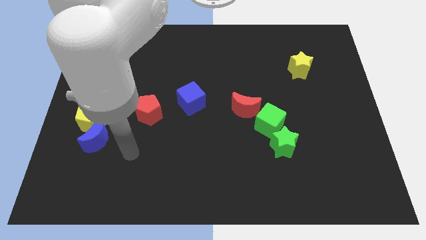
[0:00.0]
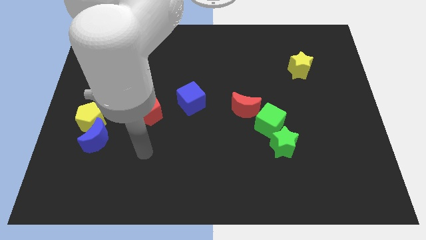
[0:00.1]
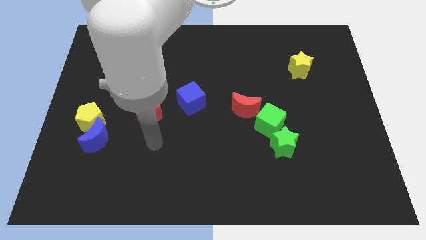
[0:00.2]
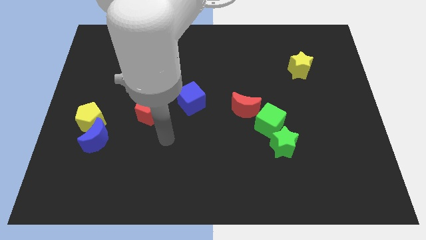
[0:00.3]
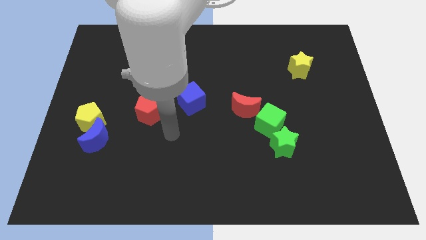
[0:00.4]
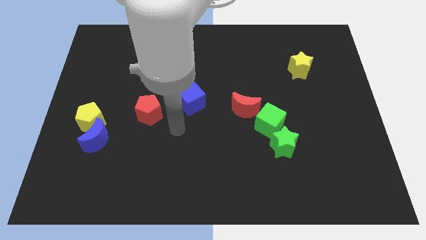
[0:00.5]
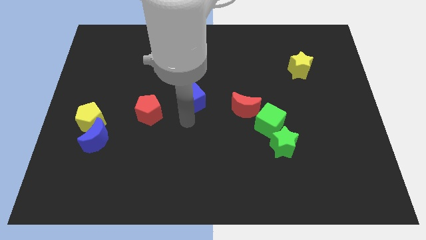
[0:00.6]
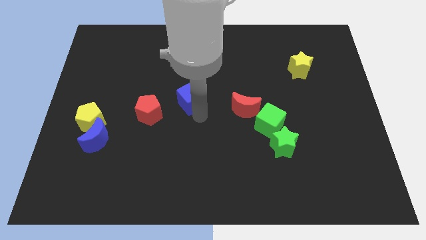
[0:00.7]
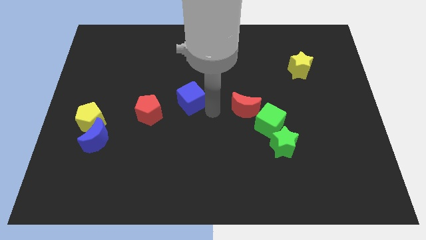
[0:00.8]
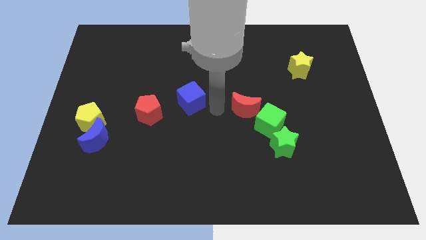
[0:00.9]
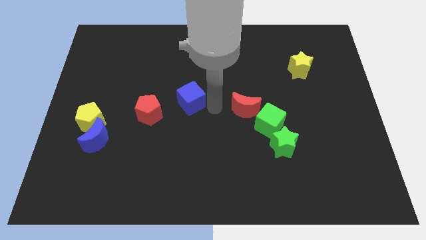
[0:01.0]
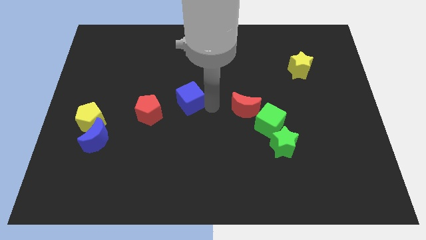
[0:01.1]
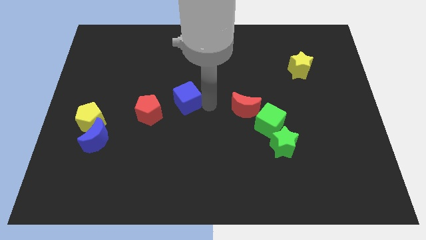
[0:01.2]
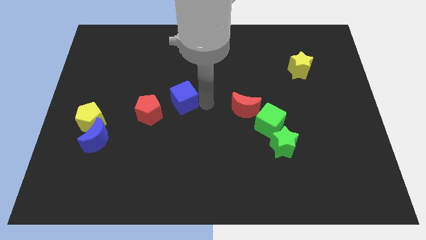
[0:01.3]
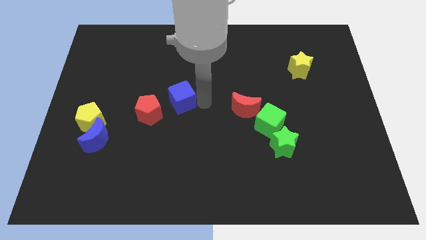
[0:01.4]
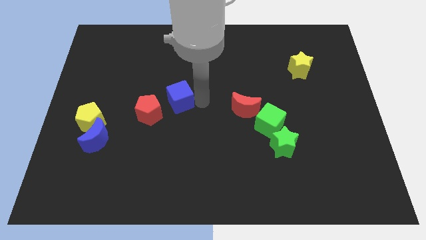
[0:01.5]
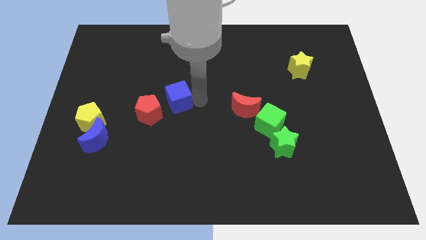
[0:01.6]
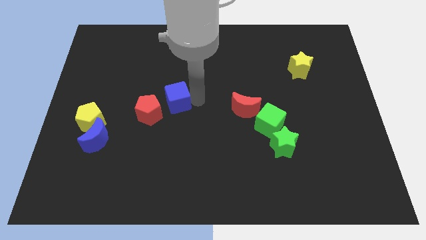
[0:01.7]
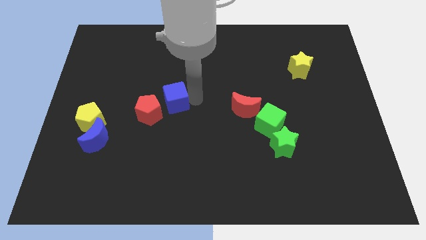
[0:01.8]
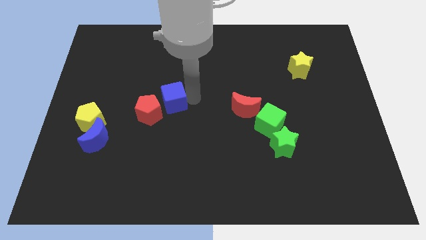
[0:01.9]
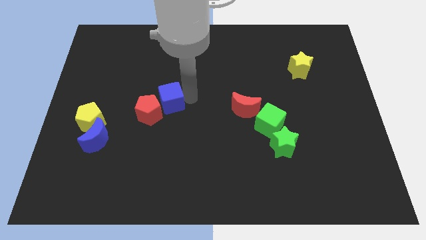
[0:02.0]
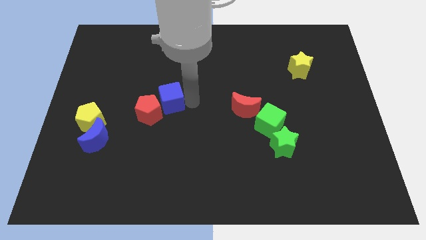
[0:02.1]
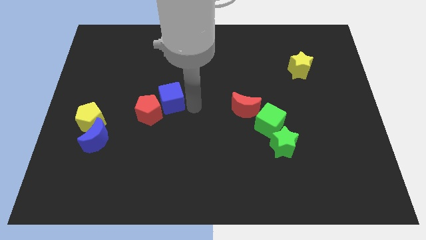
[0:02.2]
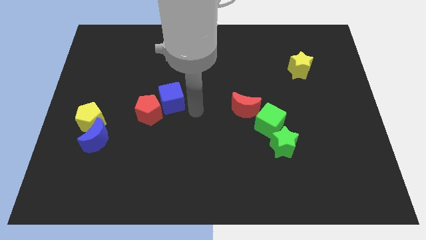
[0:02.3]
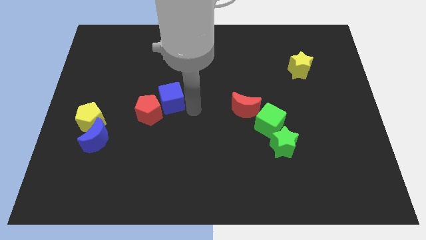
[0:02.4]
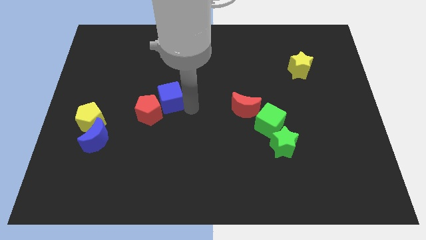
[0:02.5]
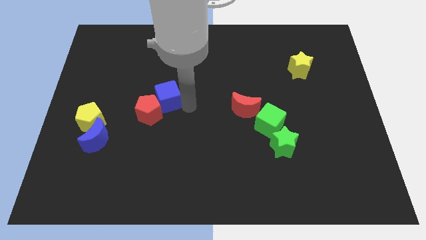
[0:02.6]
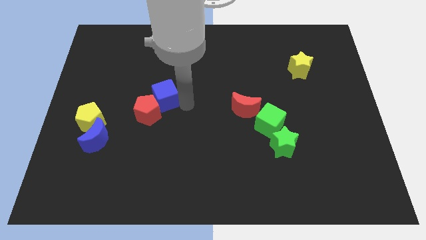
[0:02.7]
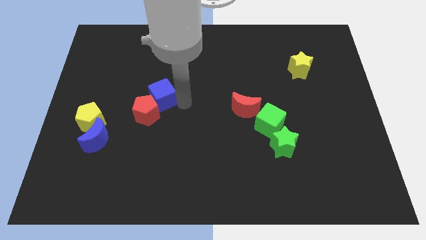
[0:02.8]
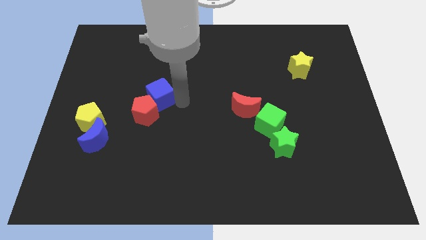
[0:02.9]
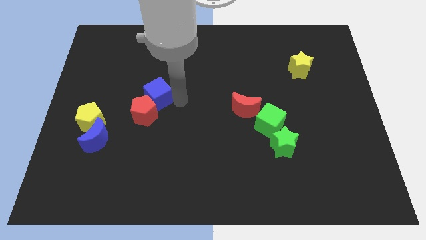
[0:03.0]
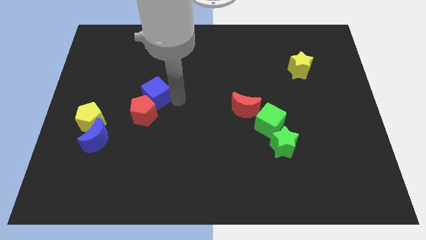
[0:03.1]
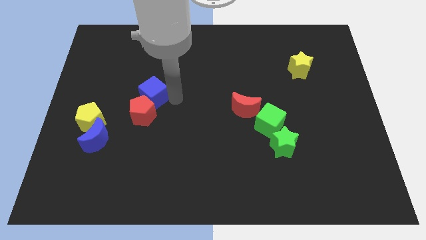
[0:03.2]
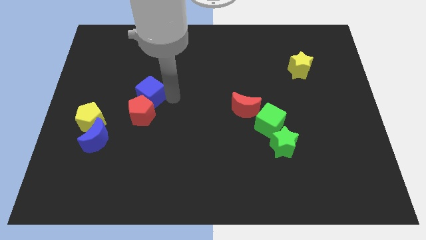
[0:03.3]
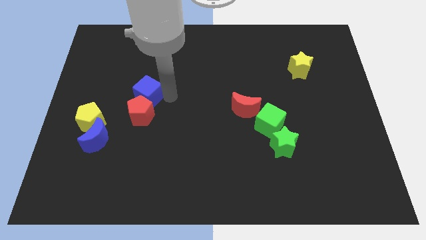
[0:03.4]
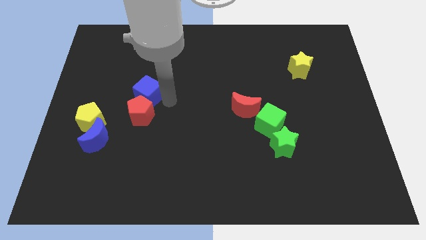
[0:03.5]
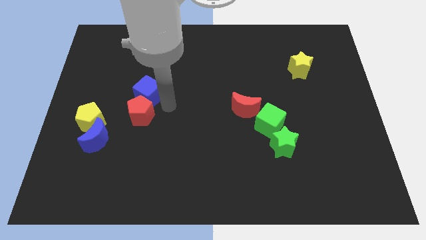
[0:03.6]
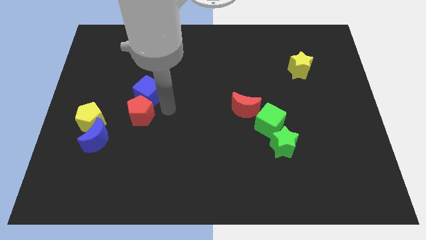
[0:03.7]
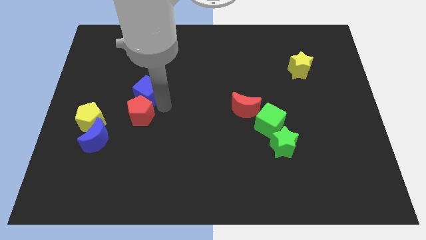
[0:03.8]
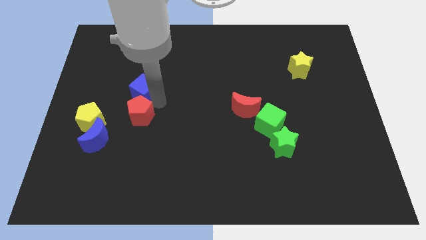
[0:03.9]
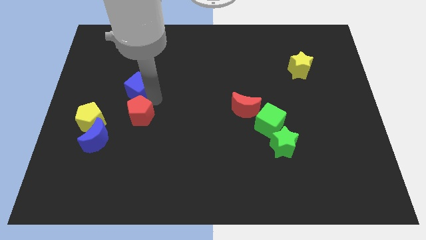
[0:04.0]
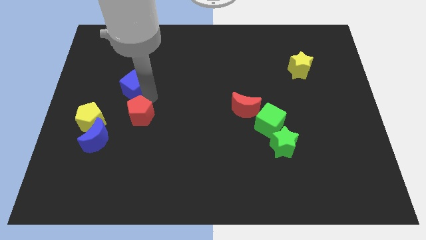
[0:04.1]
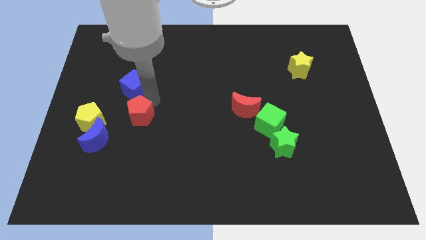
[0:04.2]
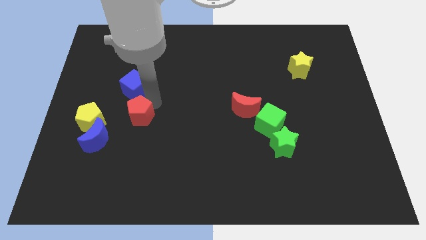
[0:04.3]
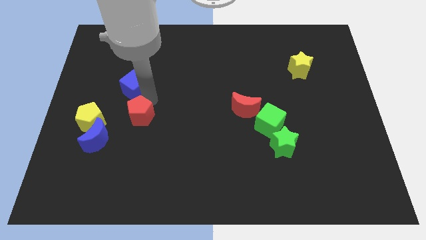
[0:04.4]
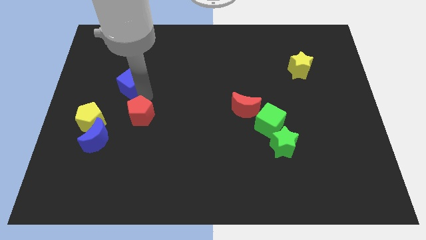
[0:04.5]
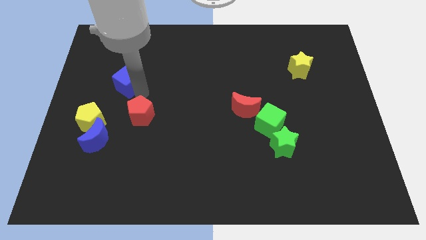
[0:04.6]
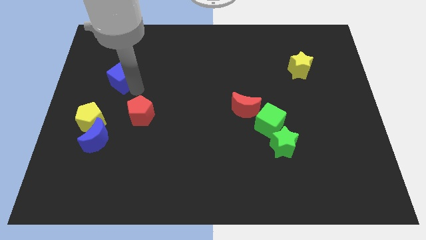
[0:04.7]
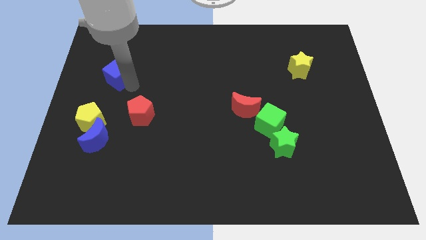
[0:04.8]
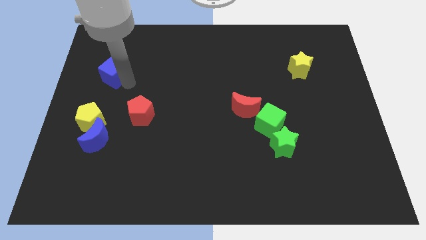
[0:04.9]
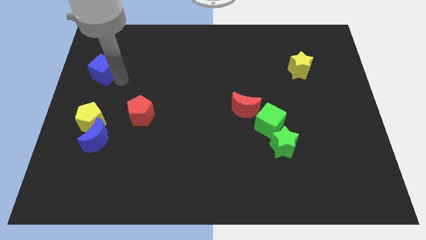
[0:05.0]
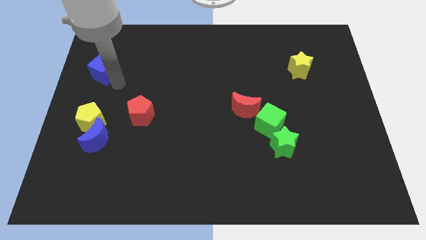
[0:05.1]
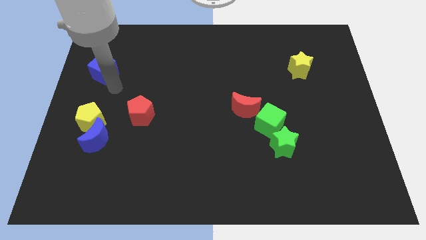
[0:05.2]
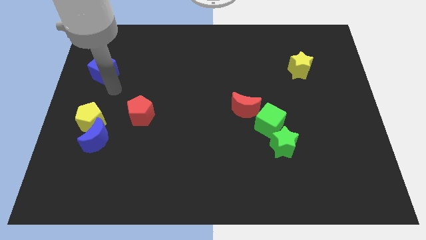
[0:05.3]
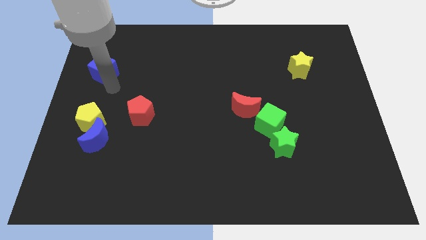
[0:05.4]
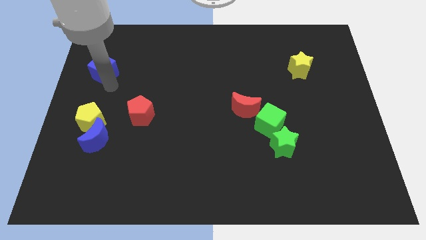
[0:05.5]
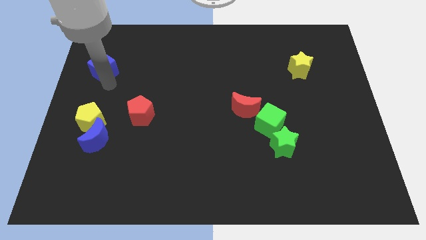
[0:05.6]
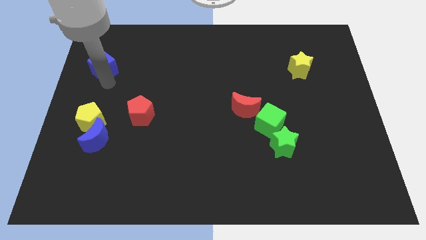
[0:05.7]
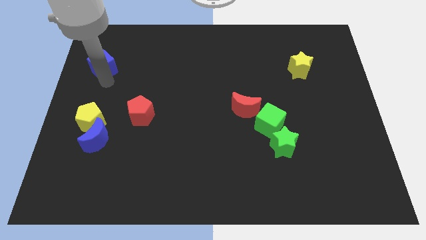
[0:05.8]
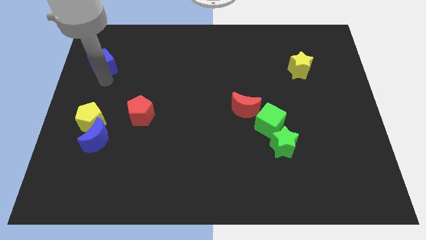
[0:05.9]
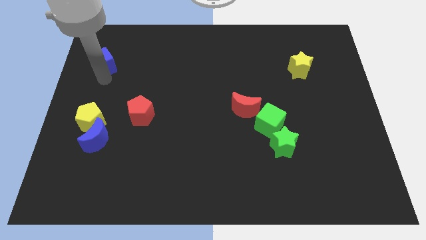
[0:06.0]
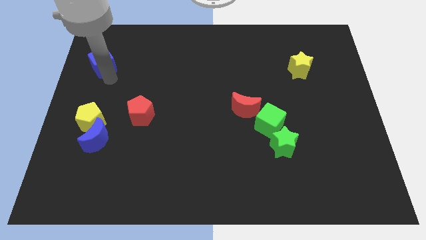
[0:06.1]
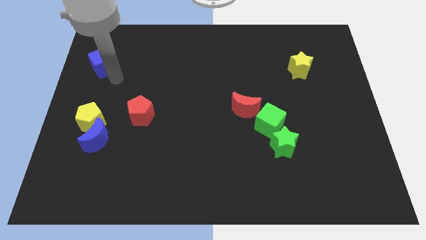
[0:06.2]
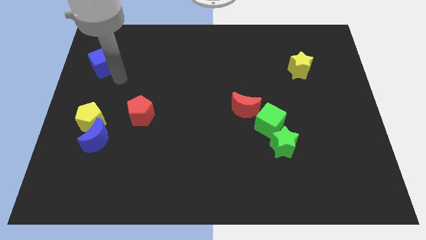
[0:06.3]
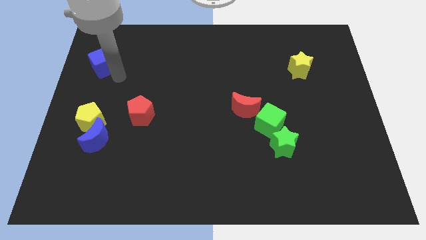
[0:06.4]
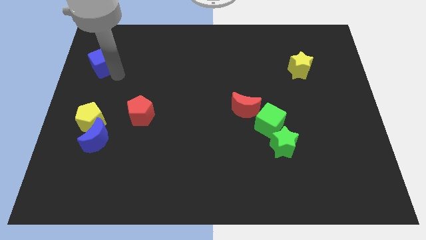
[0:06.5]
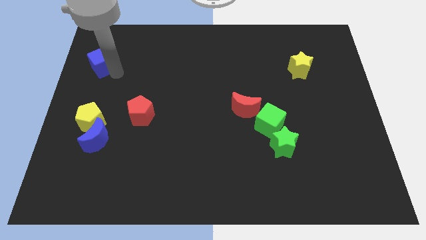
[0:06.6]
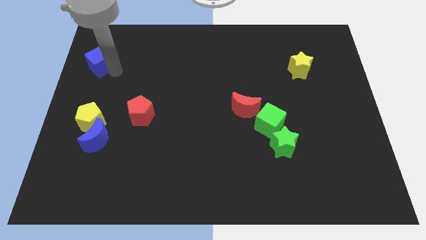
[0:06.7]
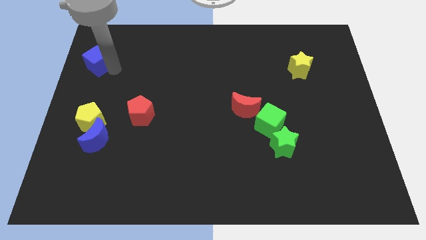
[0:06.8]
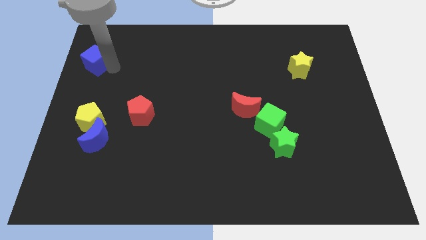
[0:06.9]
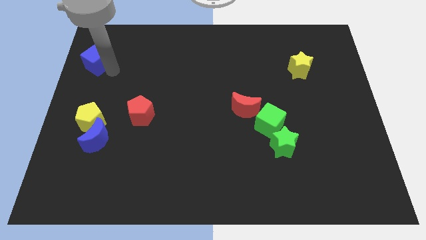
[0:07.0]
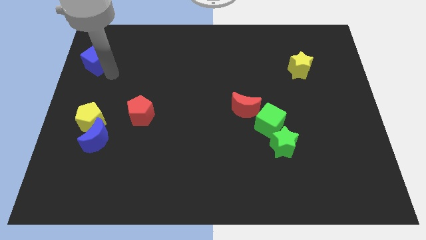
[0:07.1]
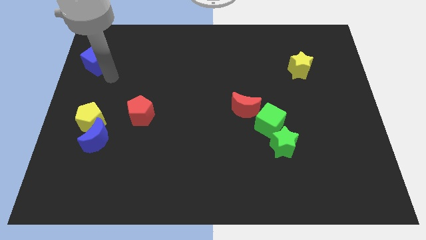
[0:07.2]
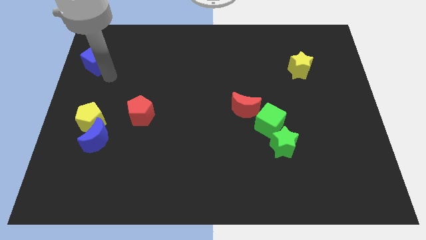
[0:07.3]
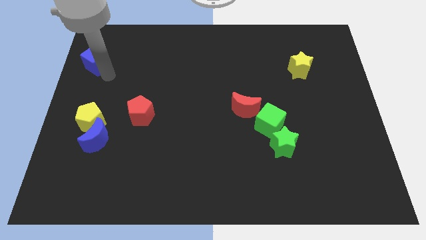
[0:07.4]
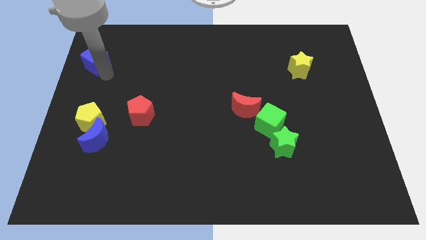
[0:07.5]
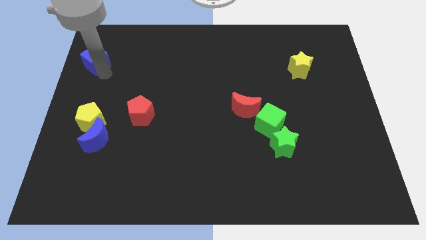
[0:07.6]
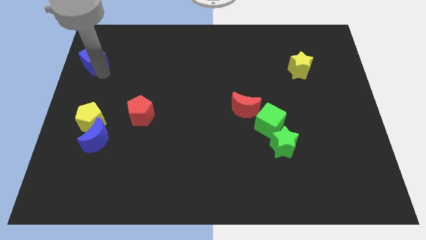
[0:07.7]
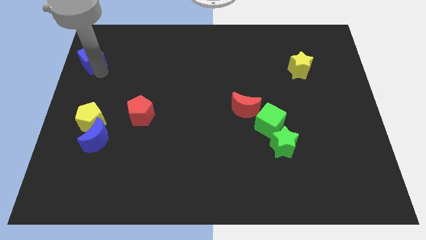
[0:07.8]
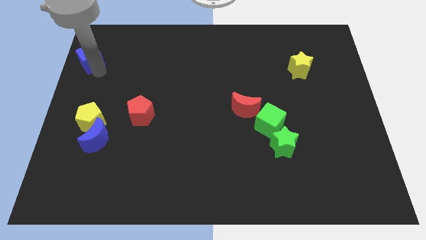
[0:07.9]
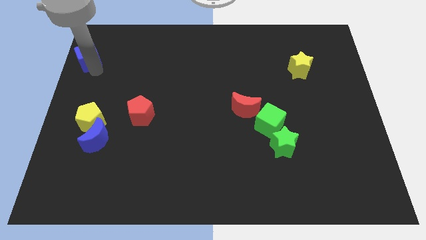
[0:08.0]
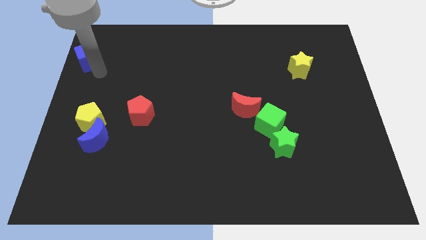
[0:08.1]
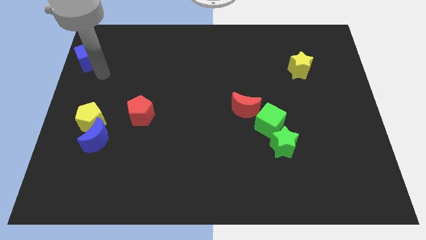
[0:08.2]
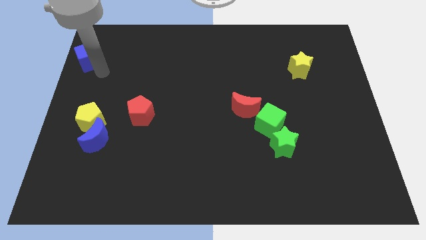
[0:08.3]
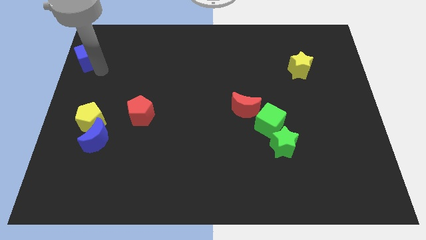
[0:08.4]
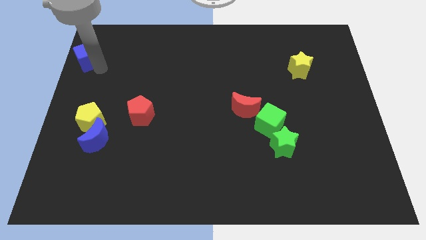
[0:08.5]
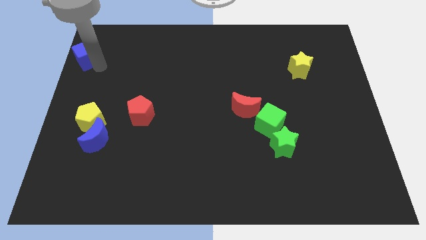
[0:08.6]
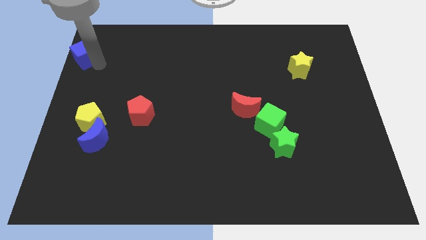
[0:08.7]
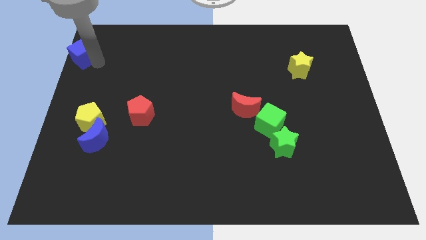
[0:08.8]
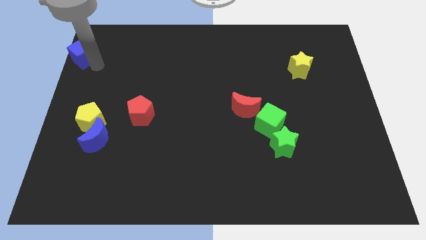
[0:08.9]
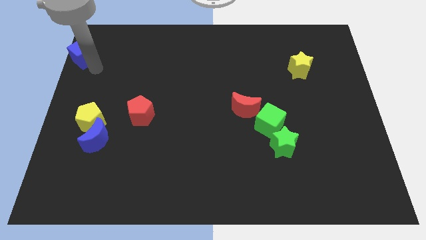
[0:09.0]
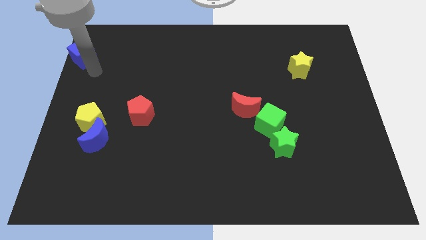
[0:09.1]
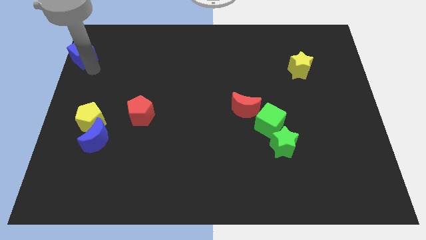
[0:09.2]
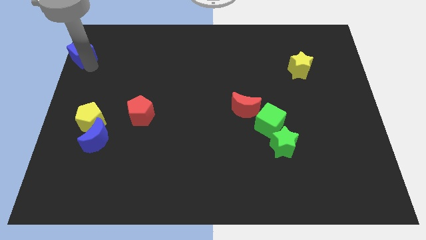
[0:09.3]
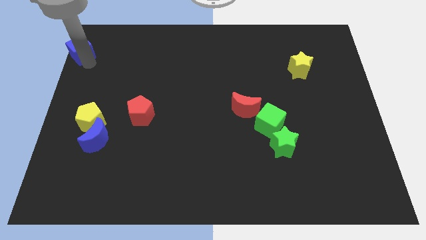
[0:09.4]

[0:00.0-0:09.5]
slide the blue cube to the upper left corner
